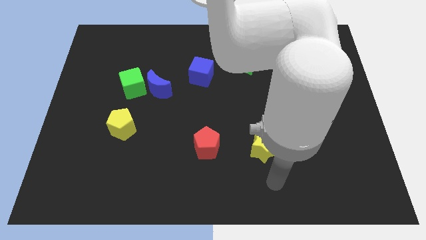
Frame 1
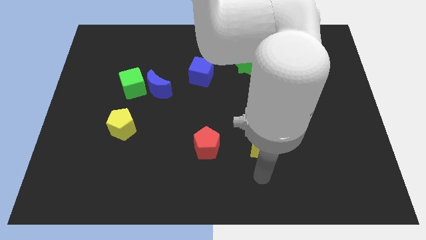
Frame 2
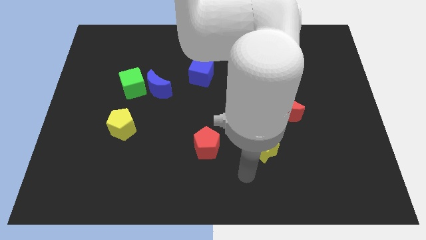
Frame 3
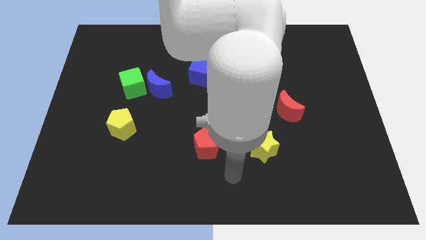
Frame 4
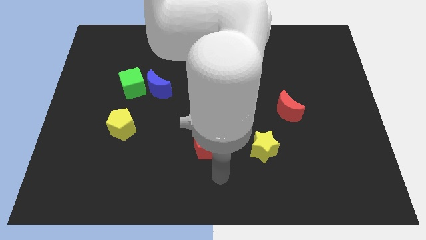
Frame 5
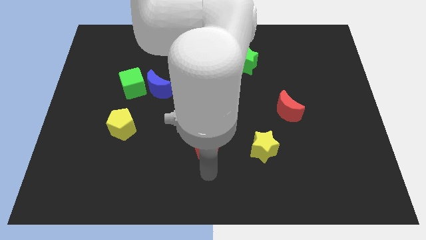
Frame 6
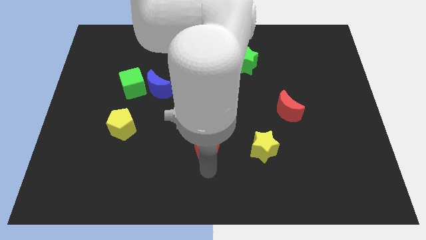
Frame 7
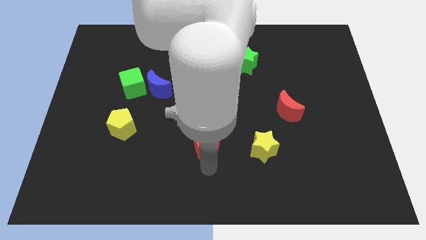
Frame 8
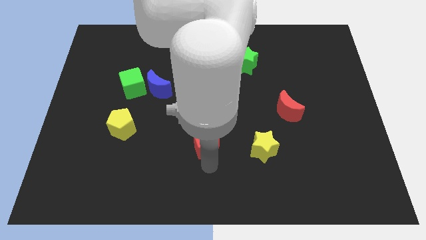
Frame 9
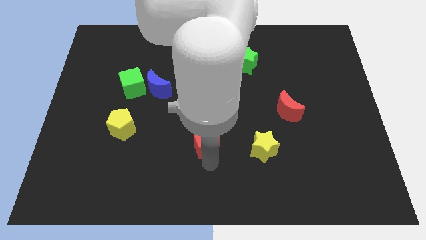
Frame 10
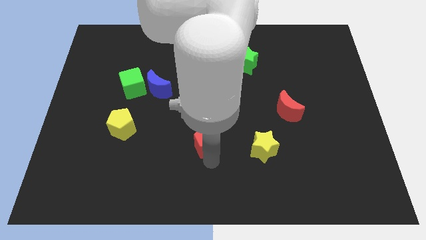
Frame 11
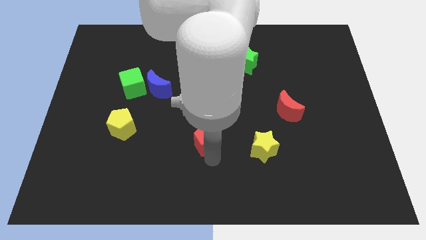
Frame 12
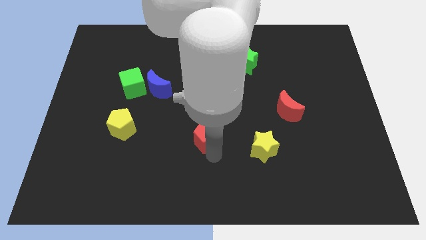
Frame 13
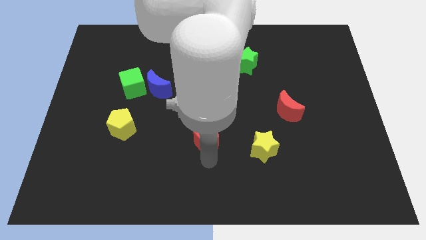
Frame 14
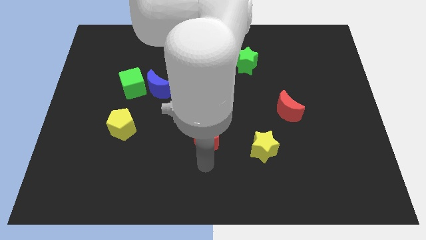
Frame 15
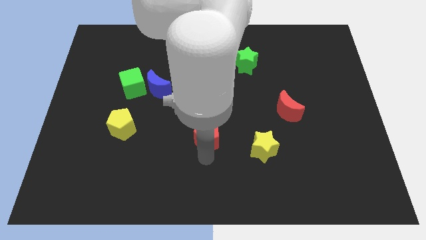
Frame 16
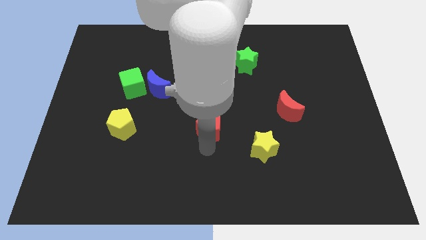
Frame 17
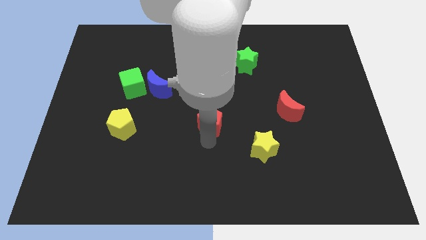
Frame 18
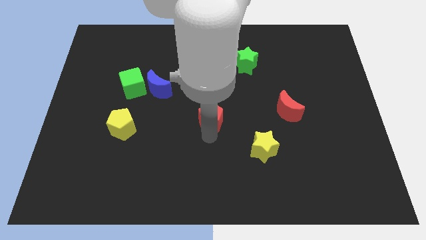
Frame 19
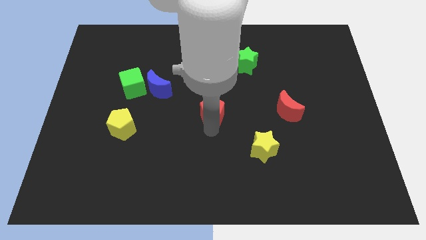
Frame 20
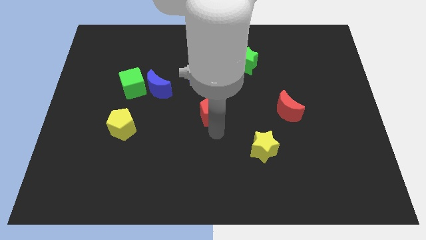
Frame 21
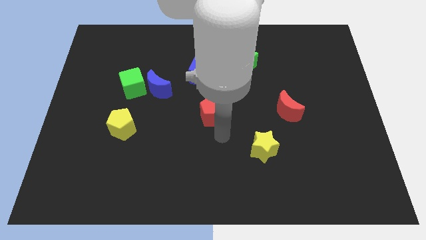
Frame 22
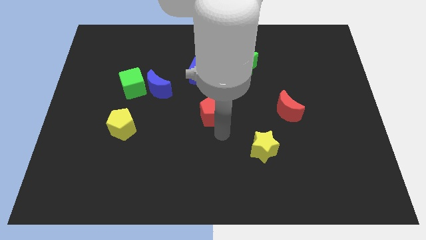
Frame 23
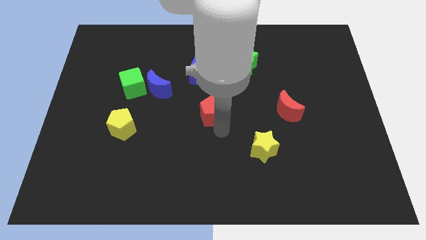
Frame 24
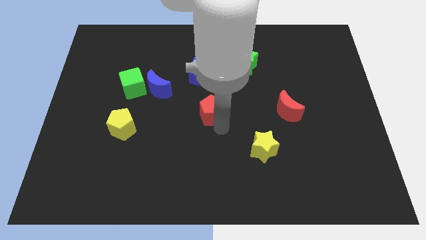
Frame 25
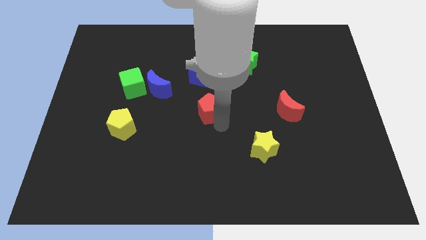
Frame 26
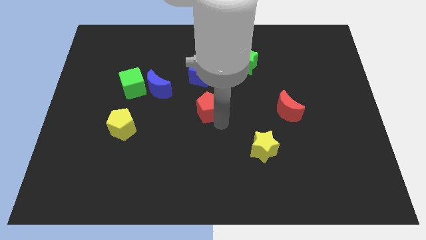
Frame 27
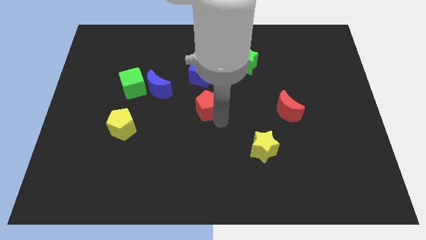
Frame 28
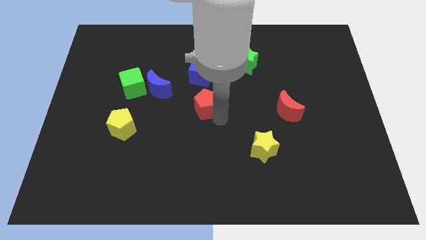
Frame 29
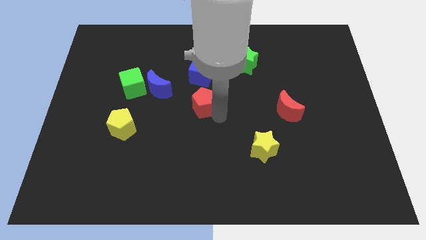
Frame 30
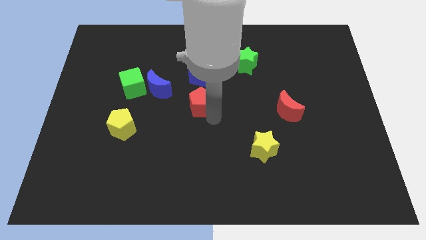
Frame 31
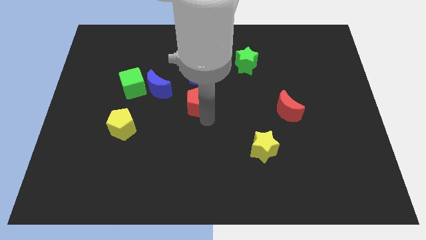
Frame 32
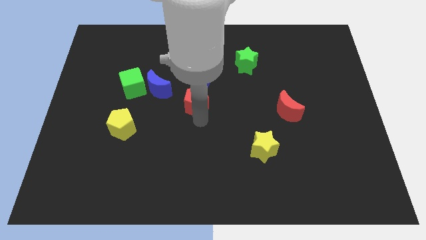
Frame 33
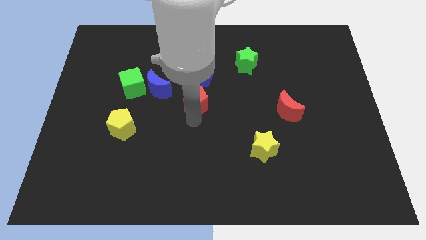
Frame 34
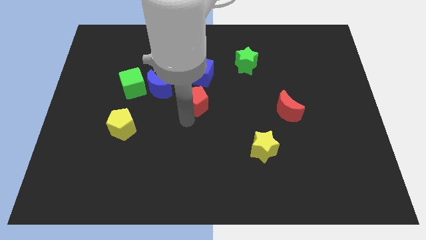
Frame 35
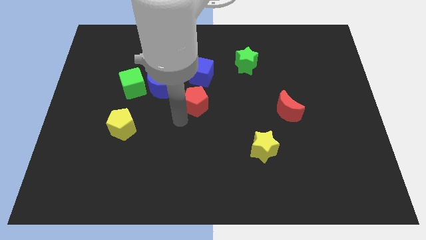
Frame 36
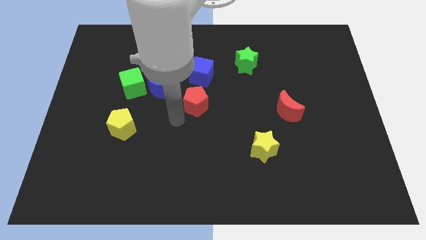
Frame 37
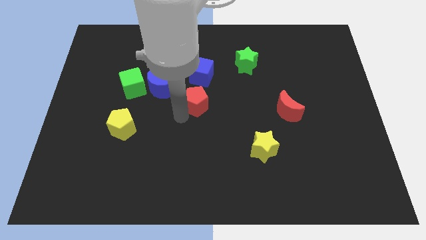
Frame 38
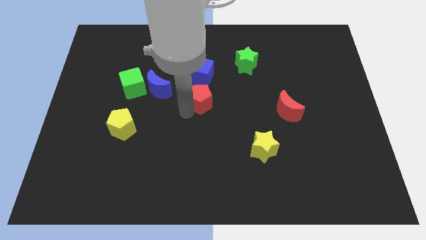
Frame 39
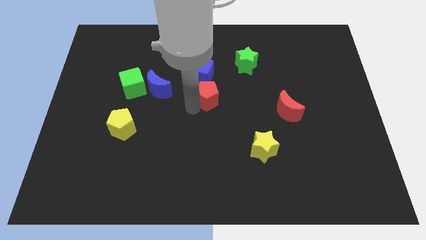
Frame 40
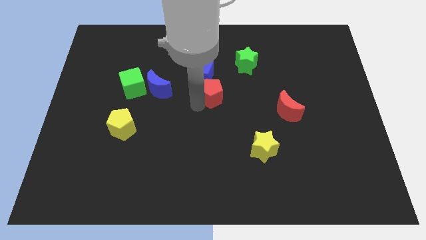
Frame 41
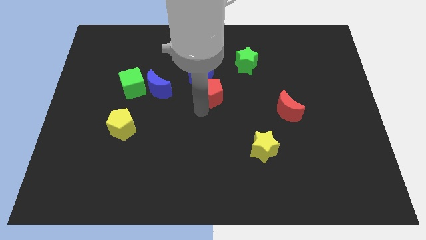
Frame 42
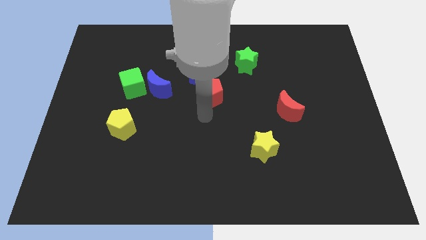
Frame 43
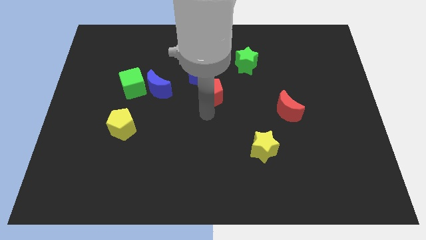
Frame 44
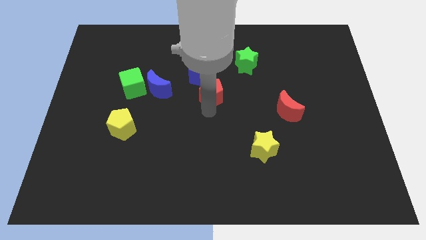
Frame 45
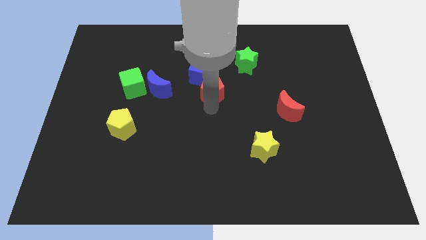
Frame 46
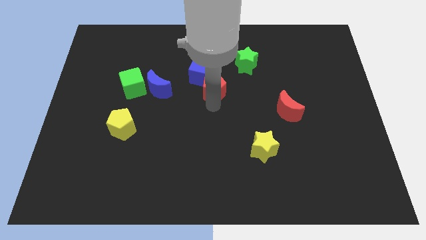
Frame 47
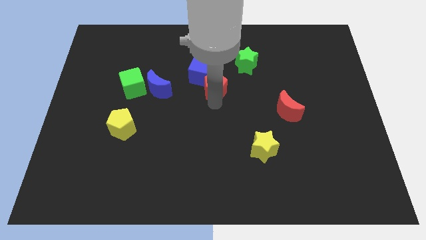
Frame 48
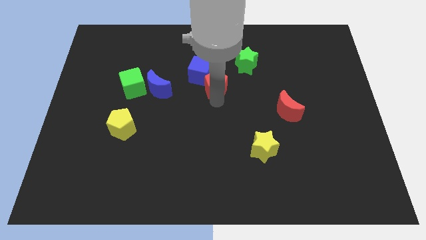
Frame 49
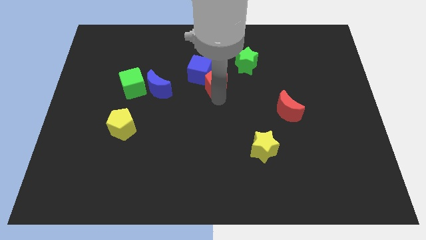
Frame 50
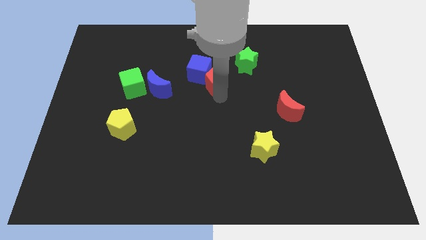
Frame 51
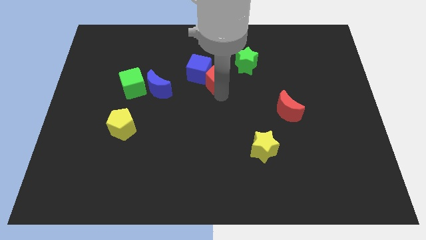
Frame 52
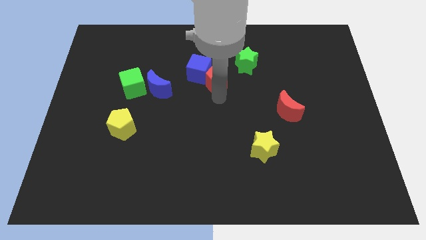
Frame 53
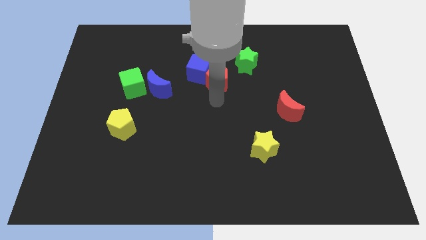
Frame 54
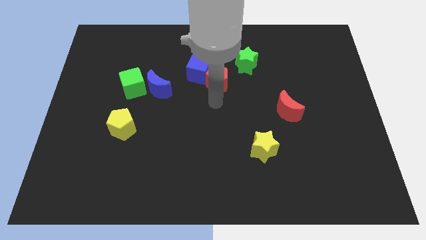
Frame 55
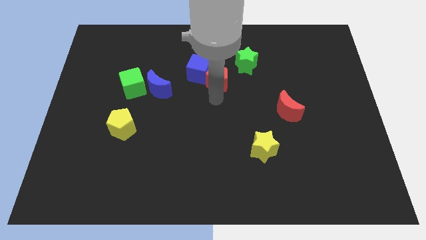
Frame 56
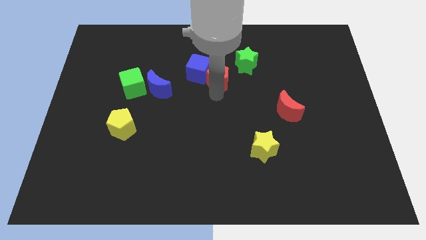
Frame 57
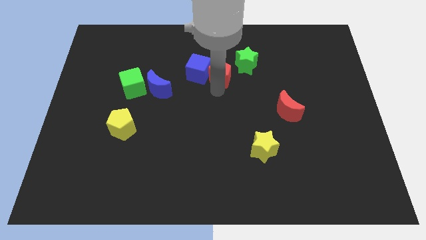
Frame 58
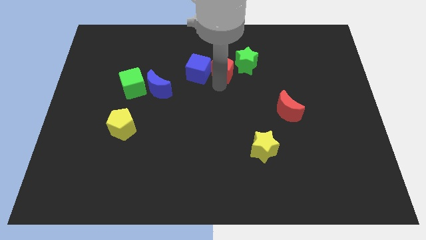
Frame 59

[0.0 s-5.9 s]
put the red pentagon to the top right of the blue cube

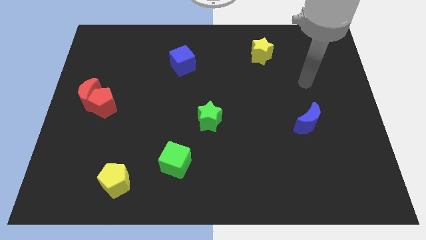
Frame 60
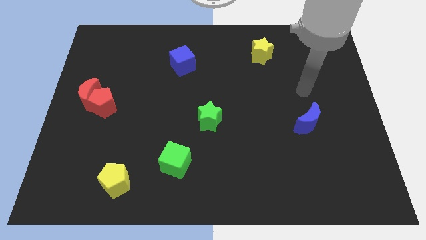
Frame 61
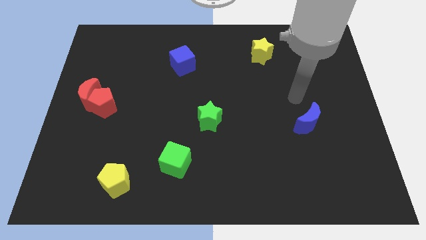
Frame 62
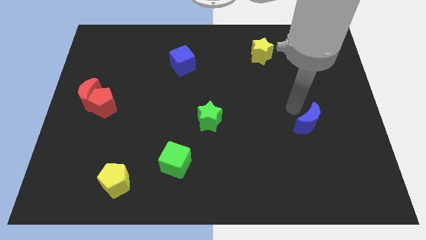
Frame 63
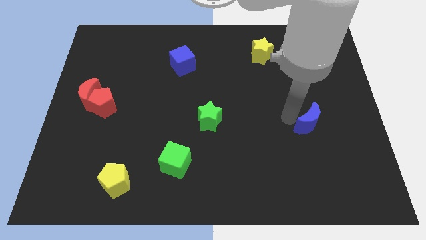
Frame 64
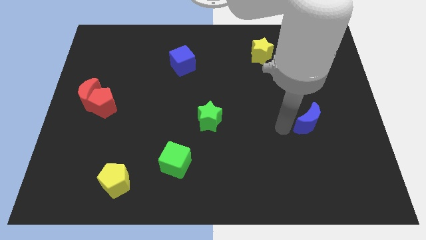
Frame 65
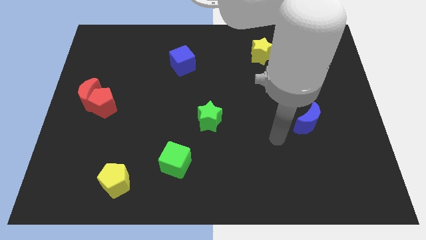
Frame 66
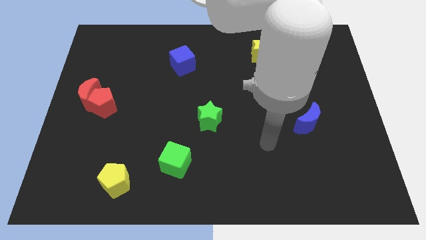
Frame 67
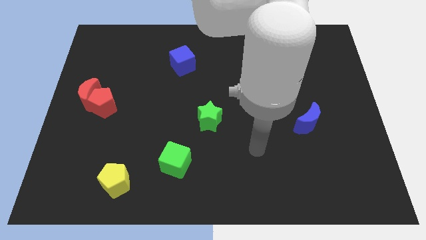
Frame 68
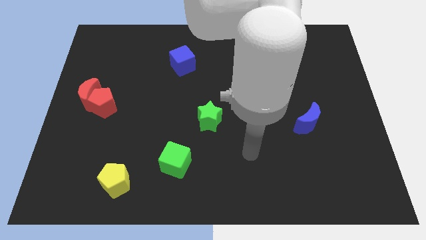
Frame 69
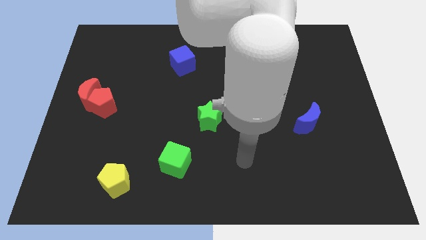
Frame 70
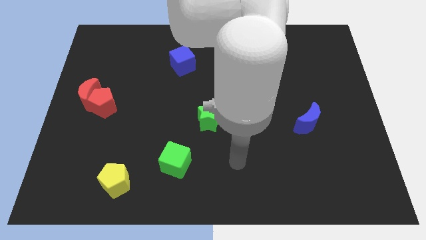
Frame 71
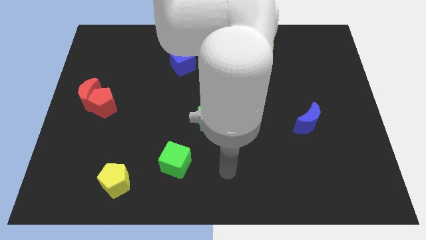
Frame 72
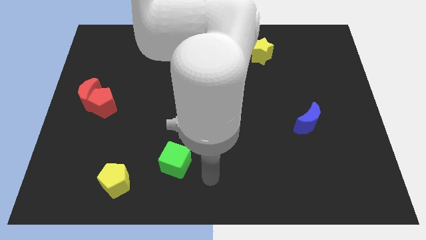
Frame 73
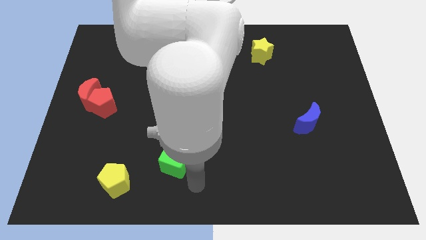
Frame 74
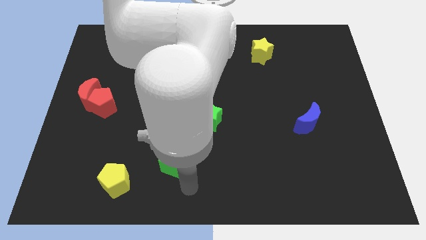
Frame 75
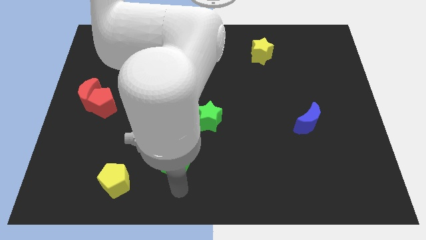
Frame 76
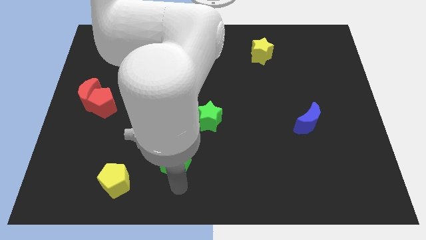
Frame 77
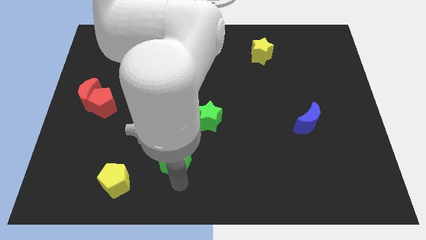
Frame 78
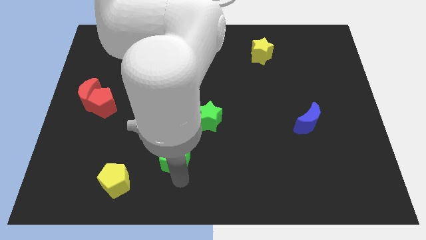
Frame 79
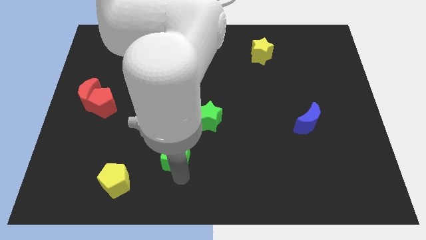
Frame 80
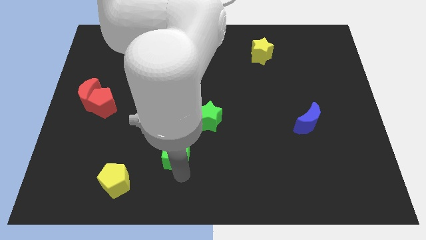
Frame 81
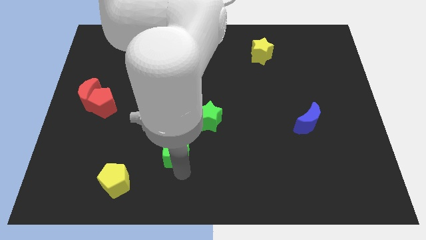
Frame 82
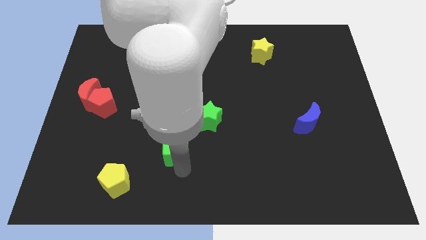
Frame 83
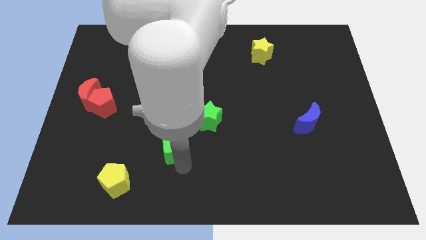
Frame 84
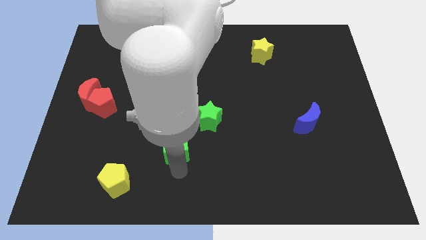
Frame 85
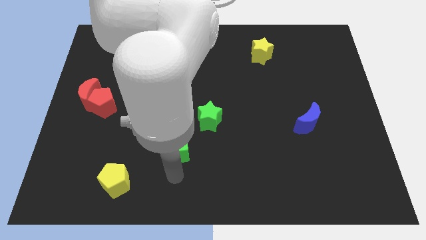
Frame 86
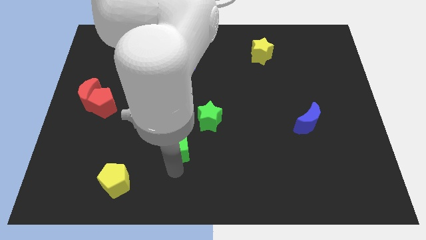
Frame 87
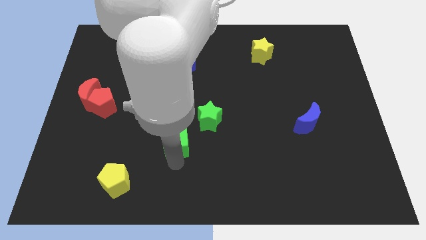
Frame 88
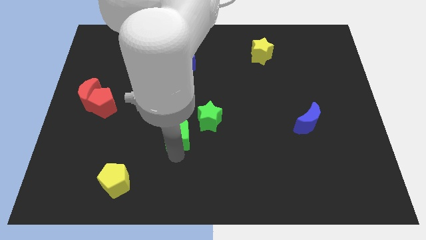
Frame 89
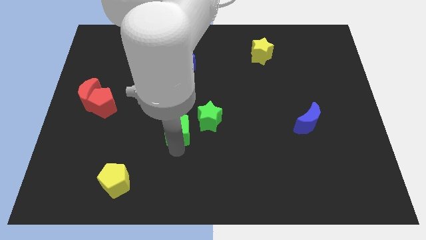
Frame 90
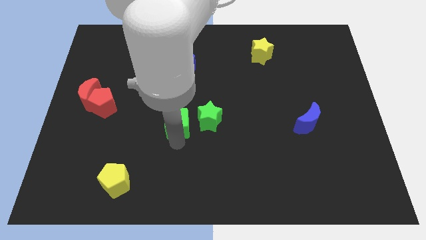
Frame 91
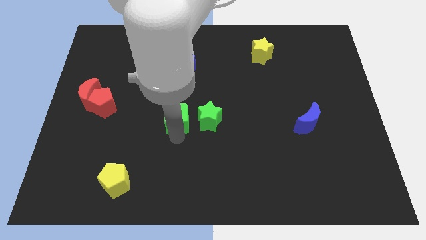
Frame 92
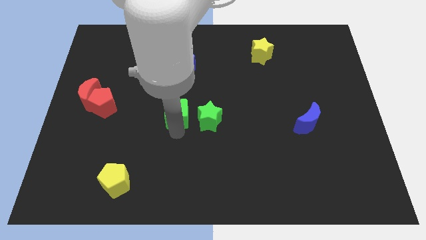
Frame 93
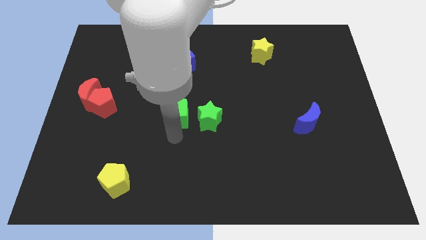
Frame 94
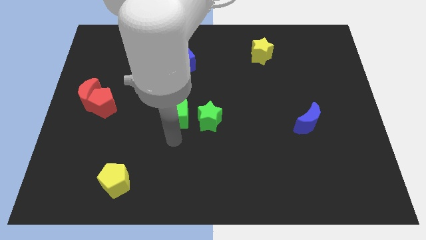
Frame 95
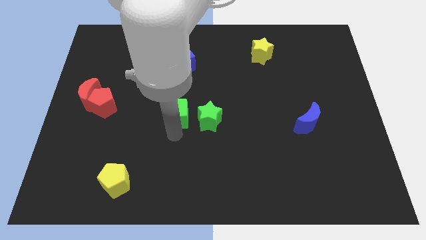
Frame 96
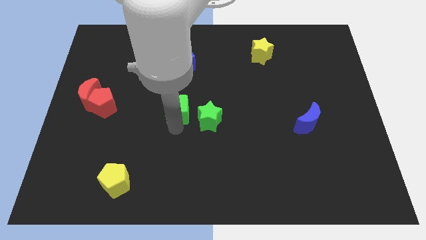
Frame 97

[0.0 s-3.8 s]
move the green cube below the blue cube
